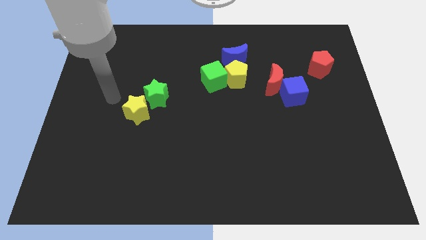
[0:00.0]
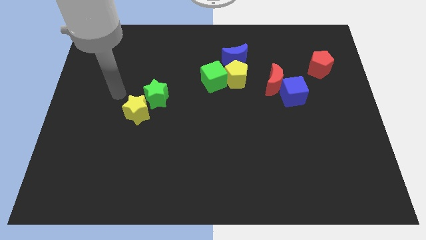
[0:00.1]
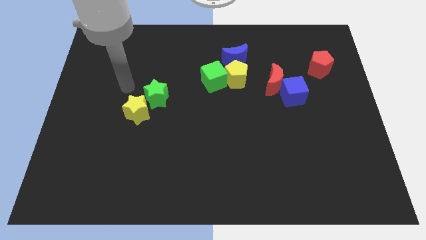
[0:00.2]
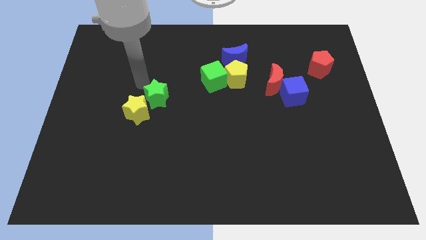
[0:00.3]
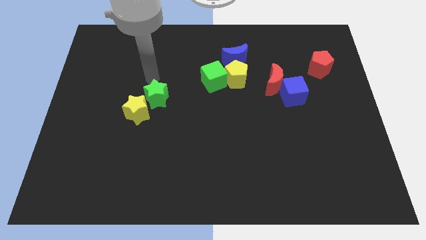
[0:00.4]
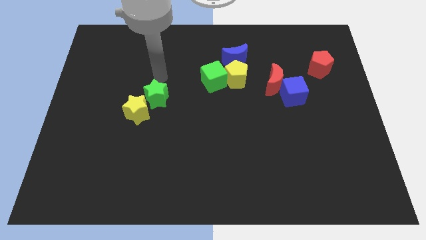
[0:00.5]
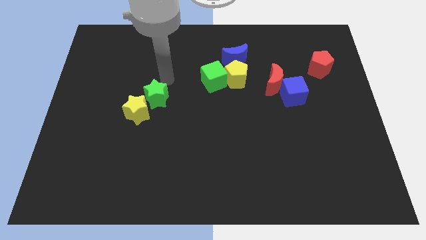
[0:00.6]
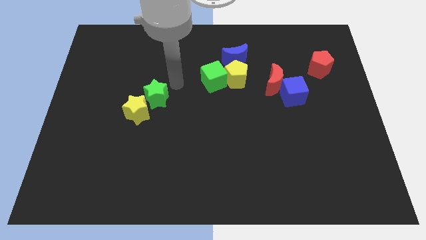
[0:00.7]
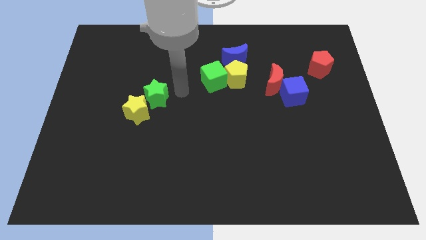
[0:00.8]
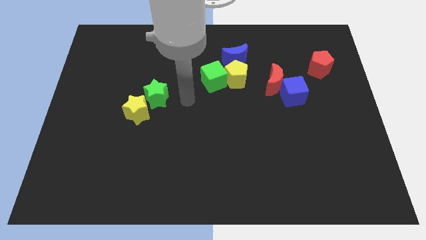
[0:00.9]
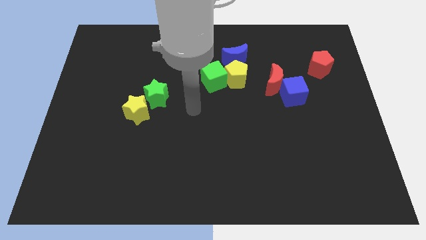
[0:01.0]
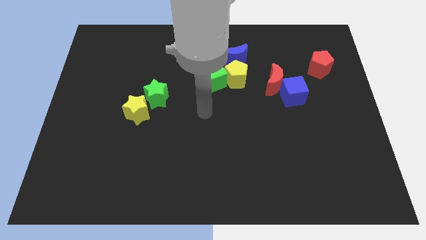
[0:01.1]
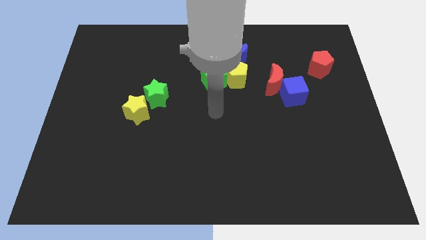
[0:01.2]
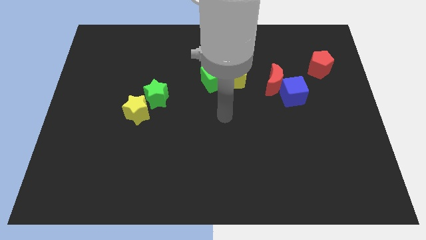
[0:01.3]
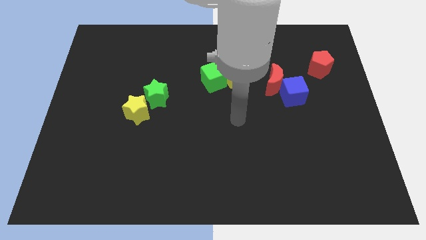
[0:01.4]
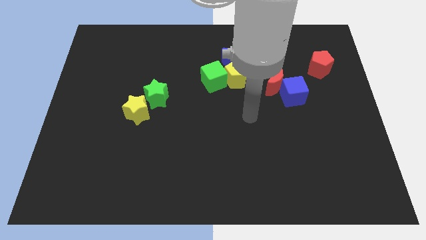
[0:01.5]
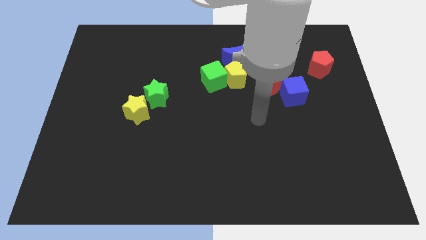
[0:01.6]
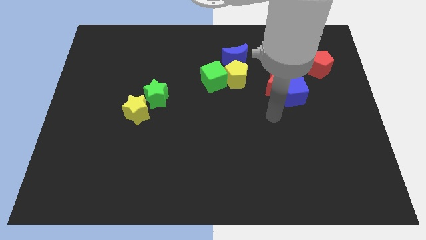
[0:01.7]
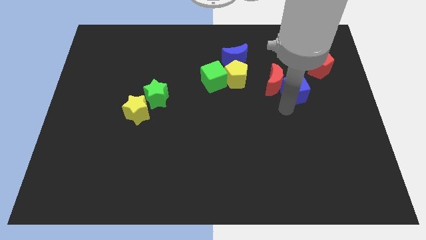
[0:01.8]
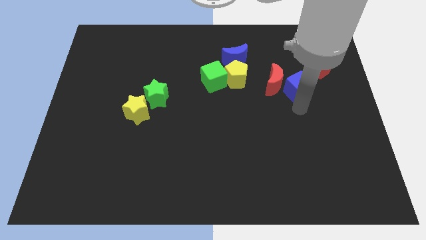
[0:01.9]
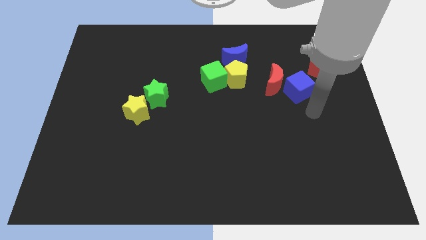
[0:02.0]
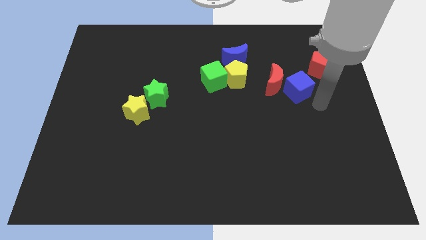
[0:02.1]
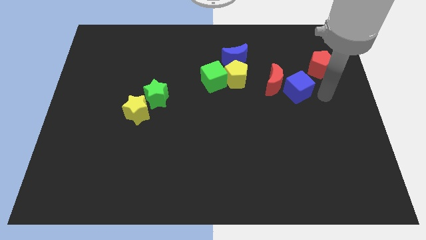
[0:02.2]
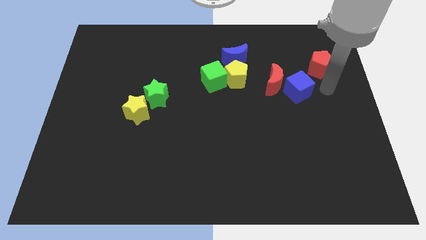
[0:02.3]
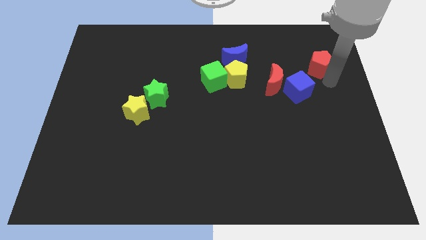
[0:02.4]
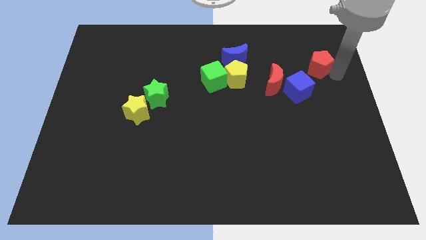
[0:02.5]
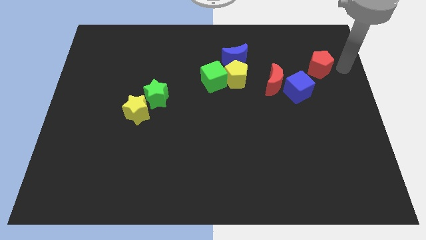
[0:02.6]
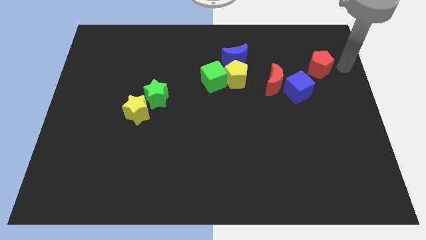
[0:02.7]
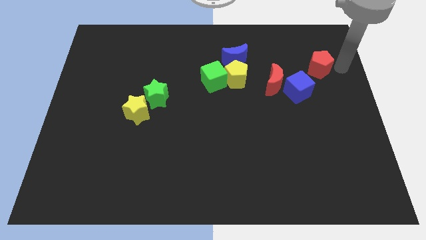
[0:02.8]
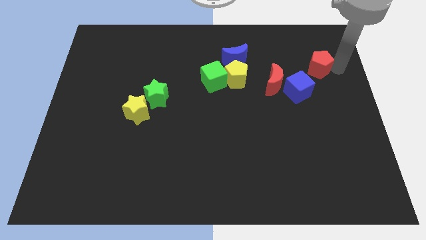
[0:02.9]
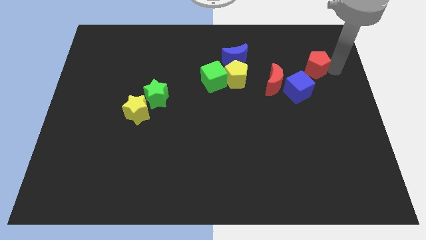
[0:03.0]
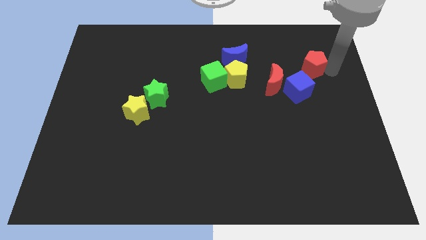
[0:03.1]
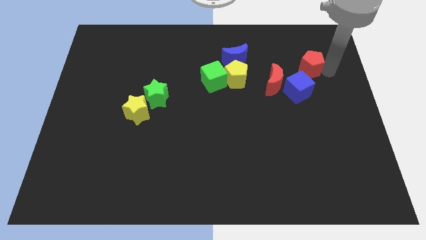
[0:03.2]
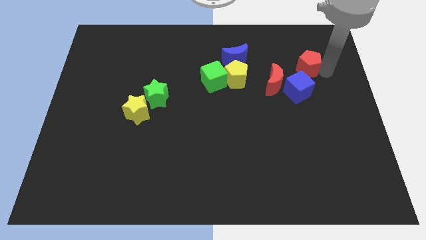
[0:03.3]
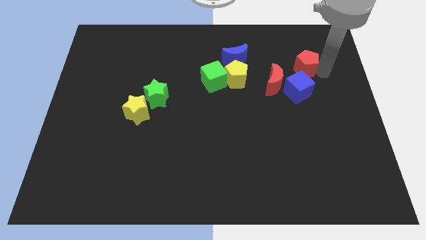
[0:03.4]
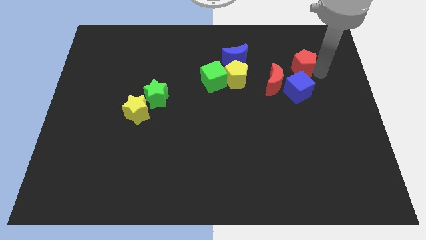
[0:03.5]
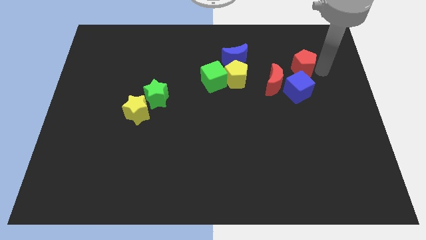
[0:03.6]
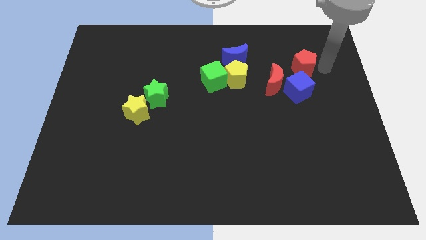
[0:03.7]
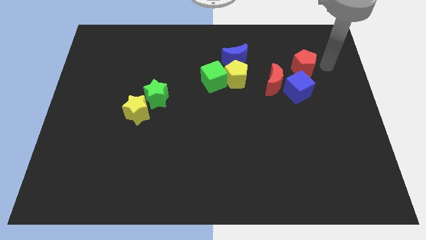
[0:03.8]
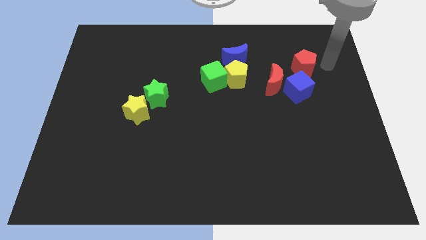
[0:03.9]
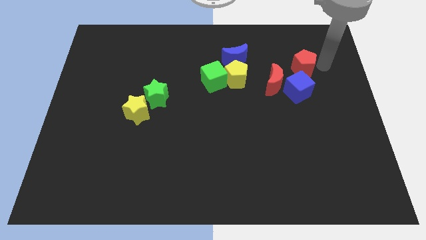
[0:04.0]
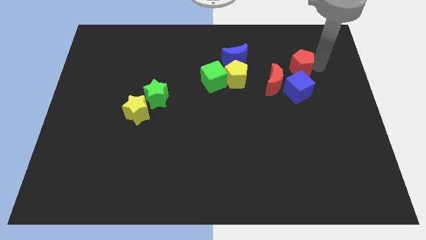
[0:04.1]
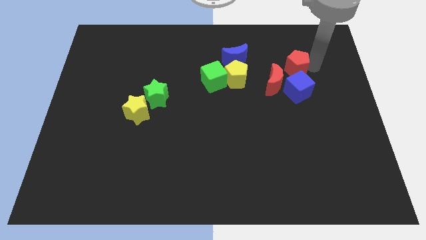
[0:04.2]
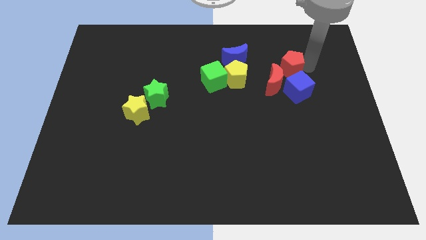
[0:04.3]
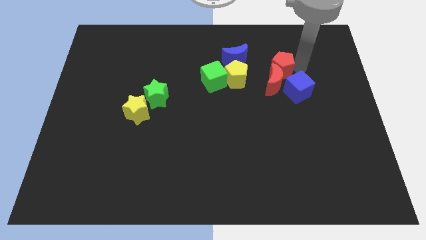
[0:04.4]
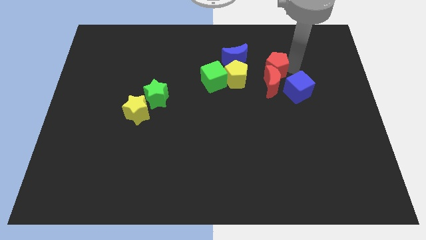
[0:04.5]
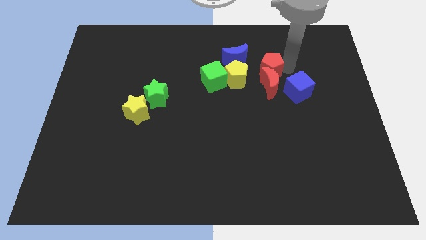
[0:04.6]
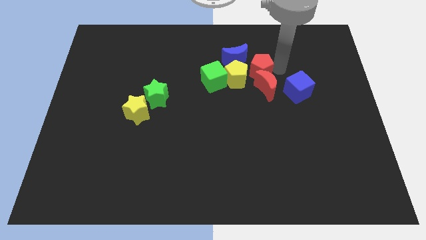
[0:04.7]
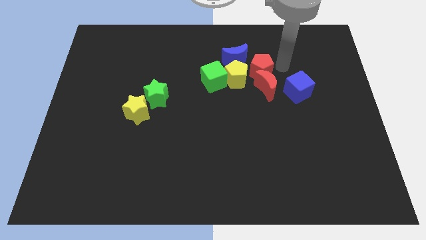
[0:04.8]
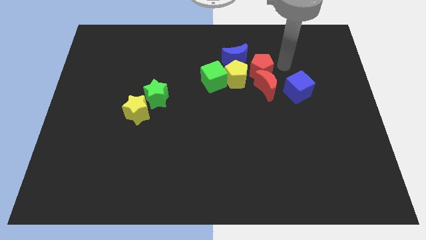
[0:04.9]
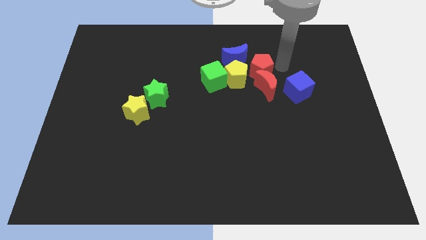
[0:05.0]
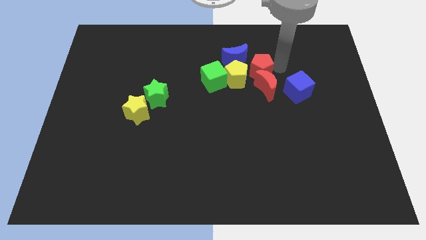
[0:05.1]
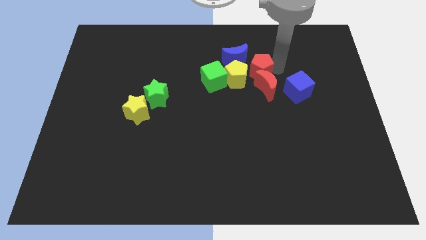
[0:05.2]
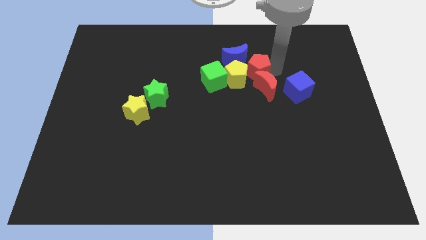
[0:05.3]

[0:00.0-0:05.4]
move the red pentagon to the yellow pentagon

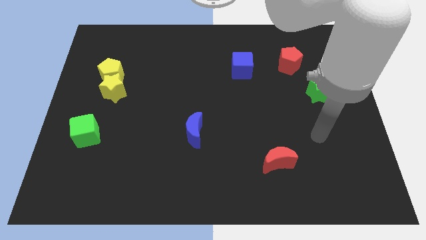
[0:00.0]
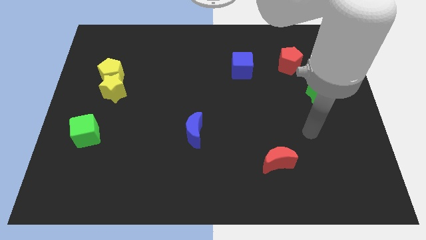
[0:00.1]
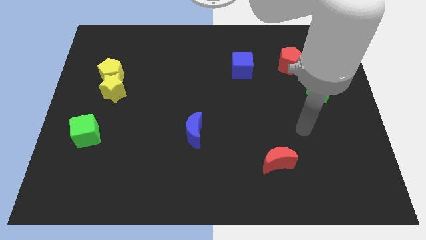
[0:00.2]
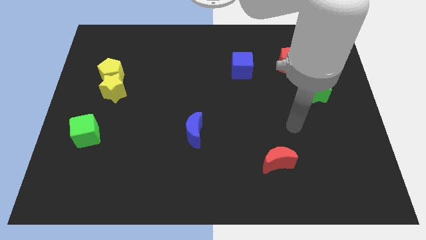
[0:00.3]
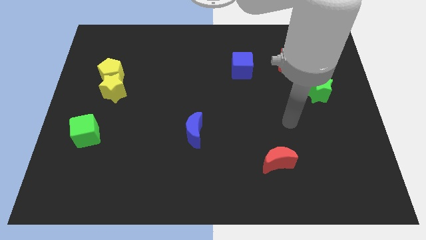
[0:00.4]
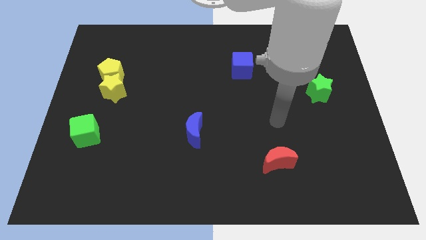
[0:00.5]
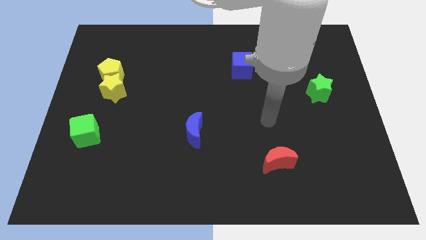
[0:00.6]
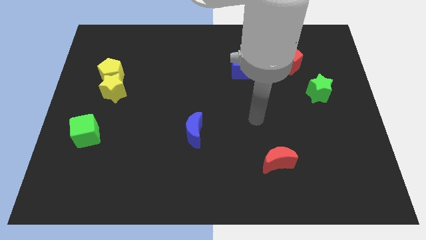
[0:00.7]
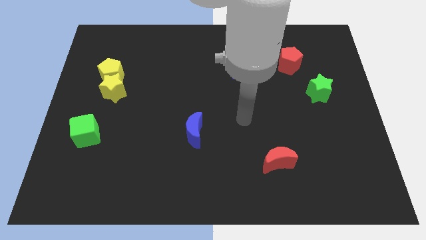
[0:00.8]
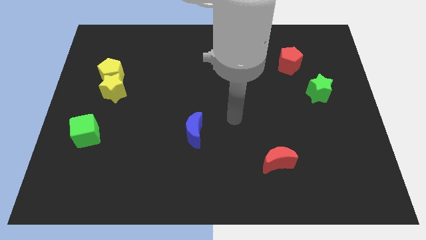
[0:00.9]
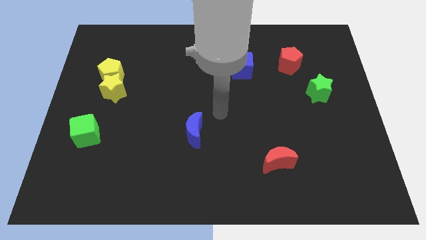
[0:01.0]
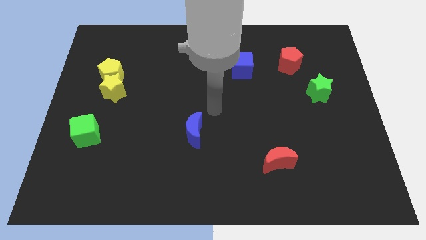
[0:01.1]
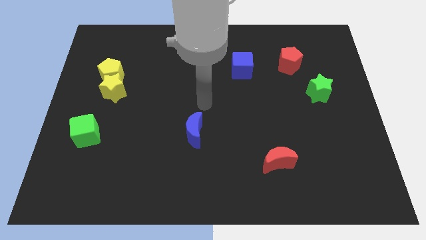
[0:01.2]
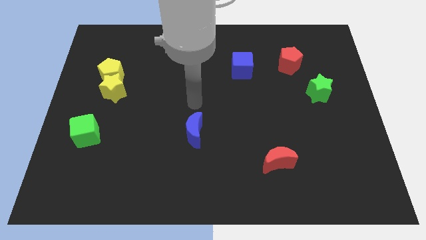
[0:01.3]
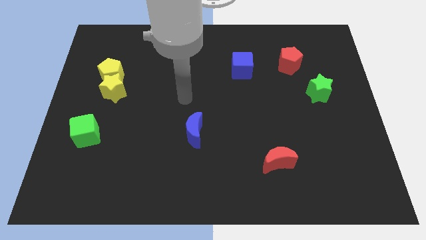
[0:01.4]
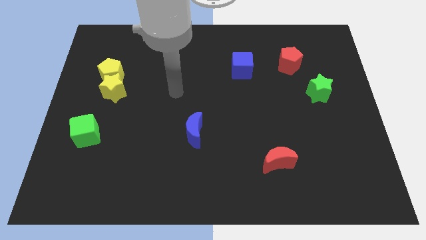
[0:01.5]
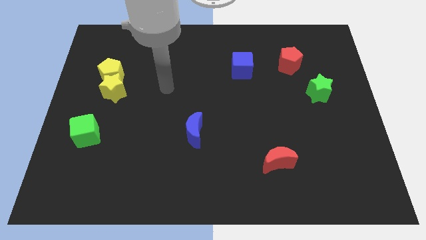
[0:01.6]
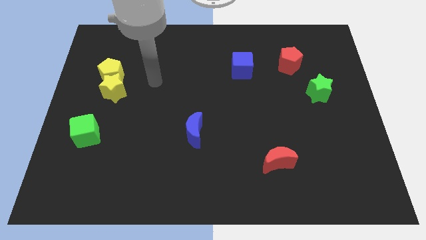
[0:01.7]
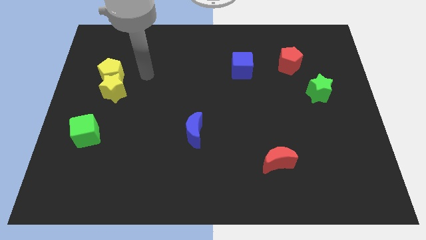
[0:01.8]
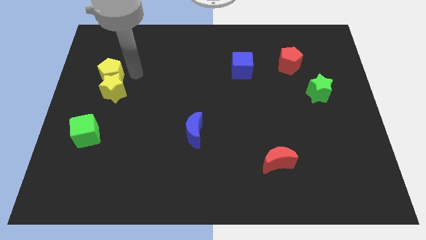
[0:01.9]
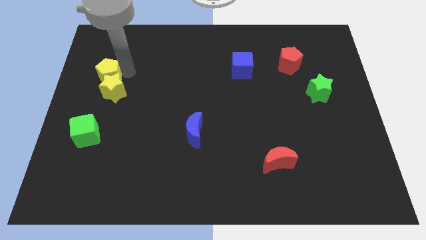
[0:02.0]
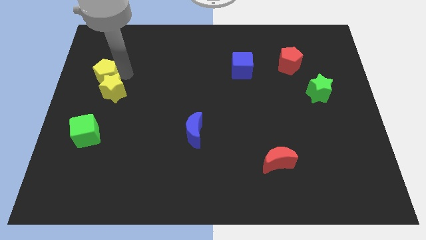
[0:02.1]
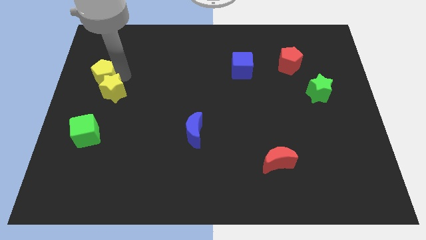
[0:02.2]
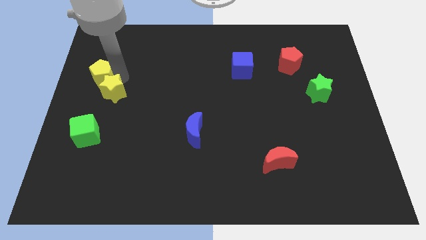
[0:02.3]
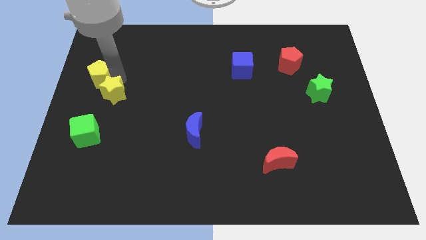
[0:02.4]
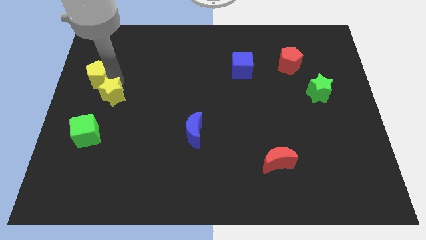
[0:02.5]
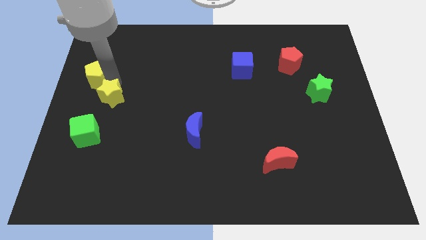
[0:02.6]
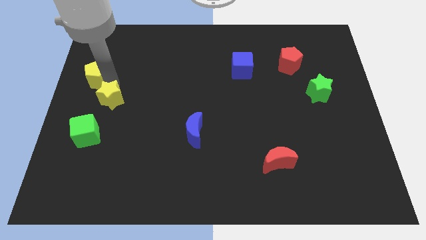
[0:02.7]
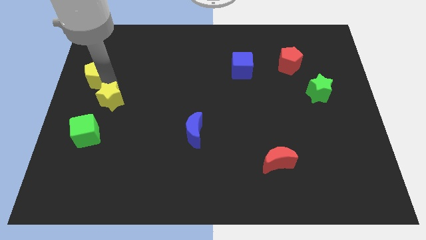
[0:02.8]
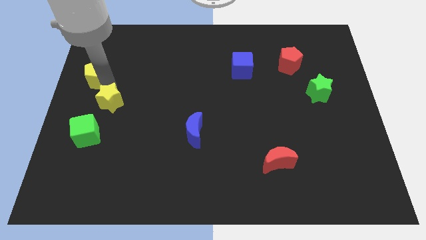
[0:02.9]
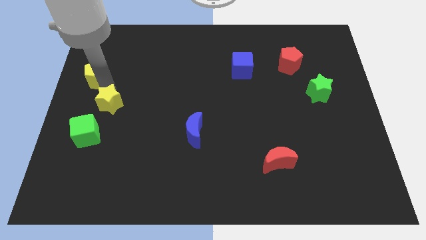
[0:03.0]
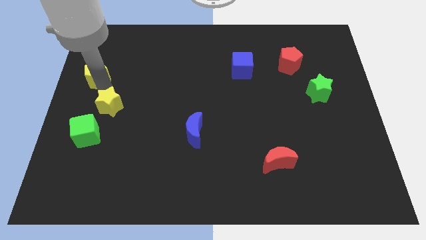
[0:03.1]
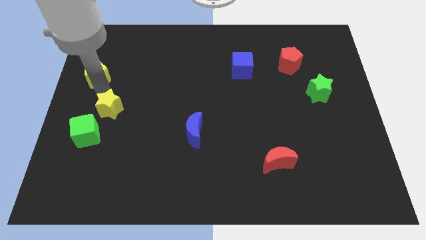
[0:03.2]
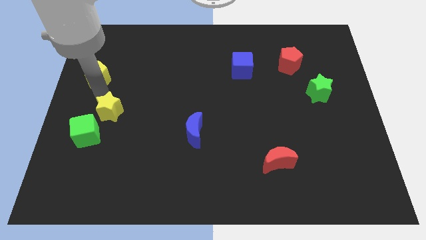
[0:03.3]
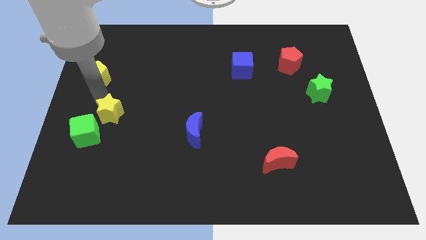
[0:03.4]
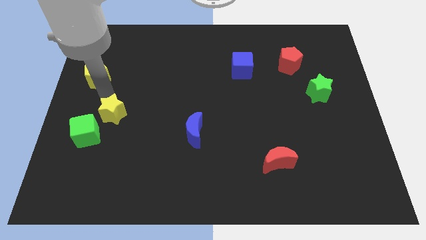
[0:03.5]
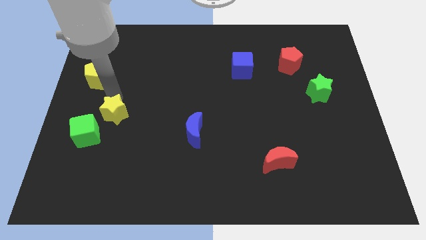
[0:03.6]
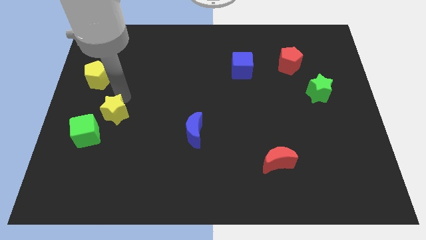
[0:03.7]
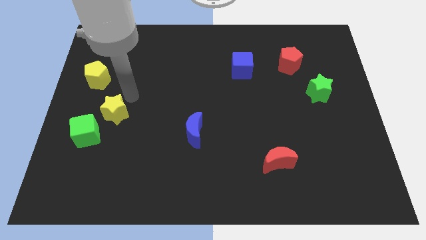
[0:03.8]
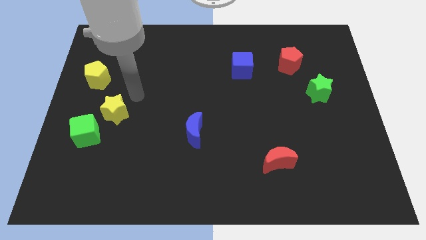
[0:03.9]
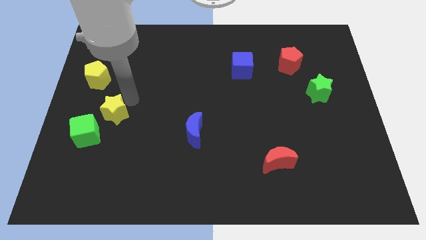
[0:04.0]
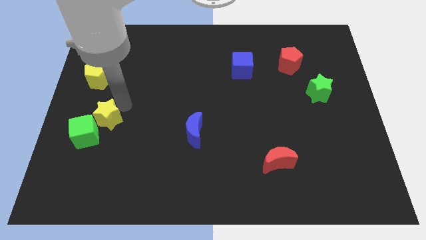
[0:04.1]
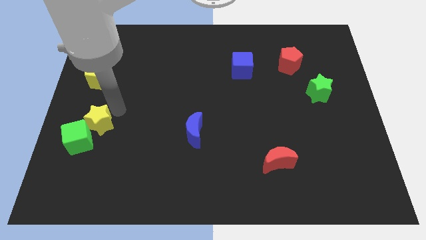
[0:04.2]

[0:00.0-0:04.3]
move the yellow star next to the green cube
